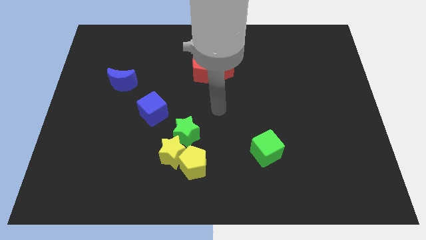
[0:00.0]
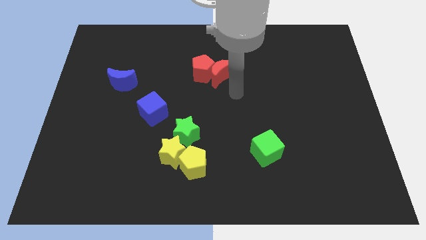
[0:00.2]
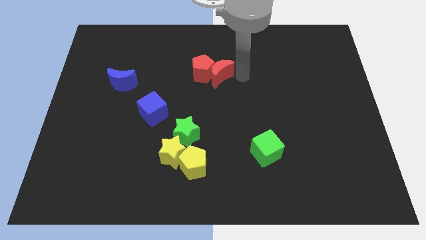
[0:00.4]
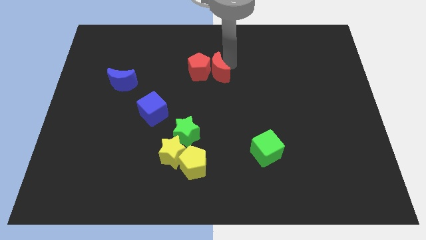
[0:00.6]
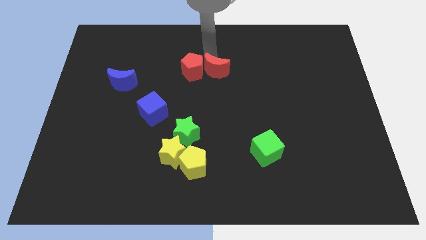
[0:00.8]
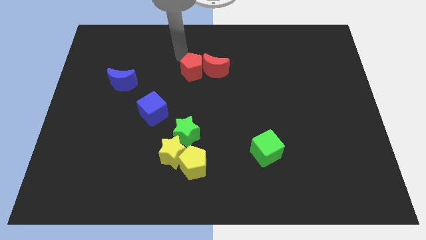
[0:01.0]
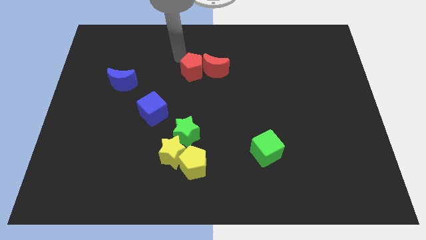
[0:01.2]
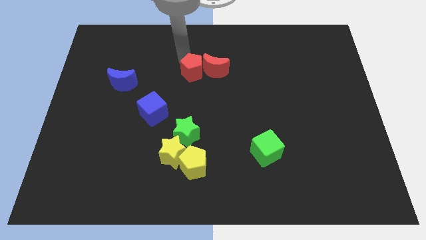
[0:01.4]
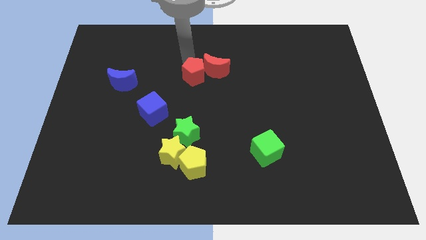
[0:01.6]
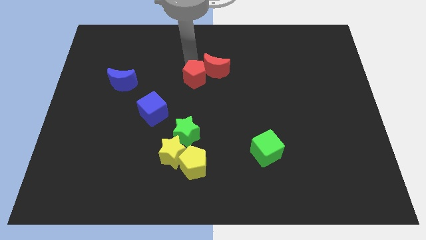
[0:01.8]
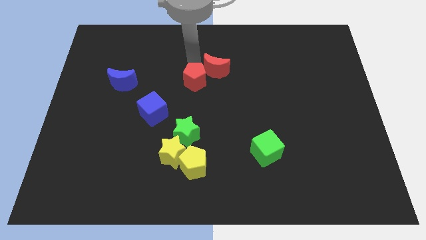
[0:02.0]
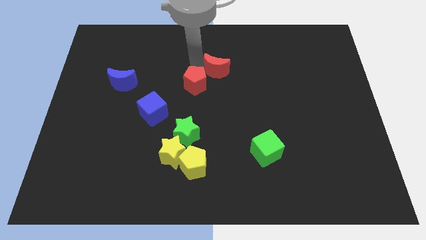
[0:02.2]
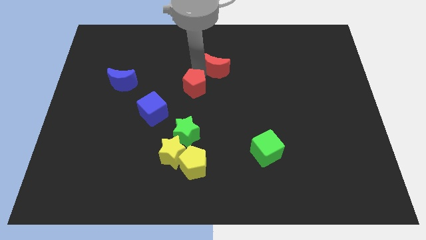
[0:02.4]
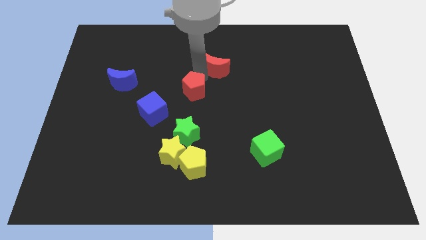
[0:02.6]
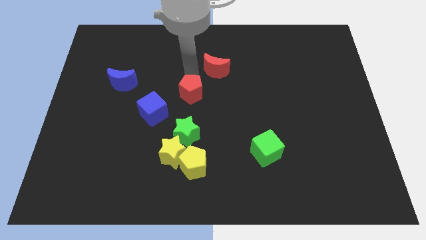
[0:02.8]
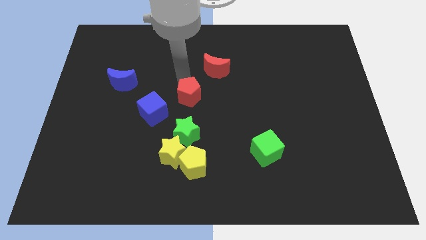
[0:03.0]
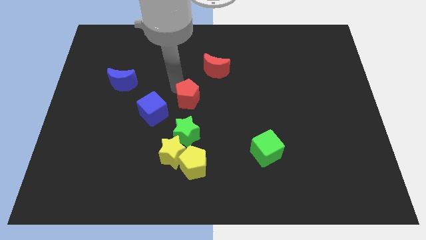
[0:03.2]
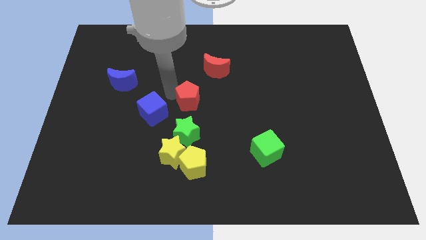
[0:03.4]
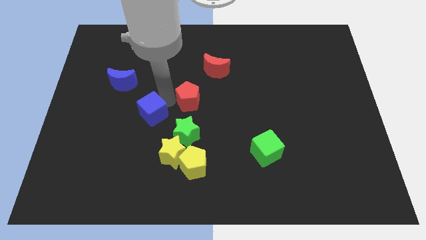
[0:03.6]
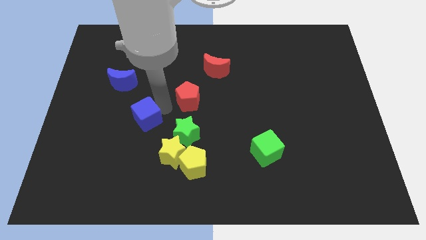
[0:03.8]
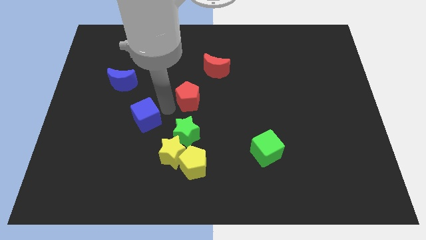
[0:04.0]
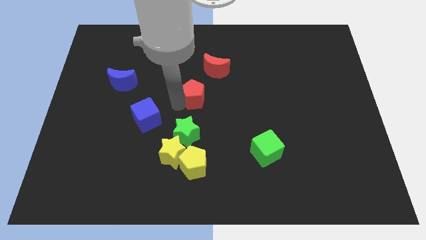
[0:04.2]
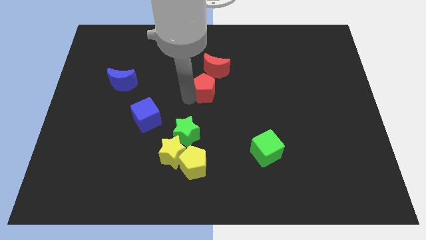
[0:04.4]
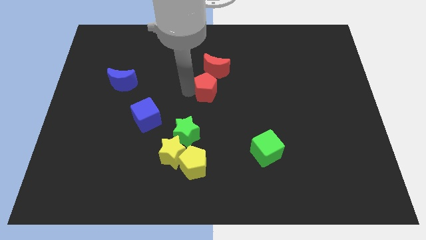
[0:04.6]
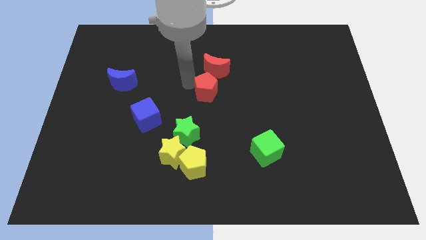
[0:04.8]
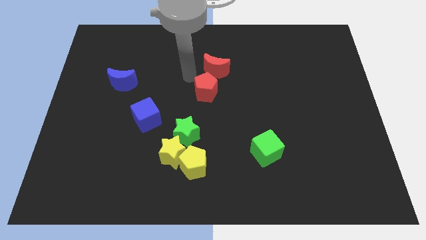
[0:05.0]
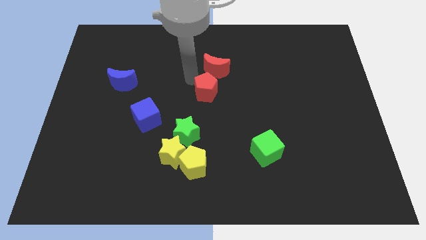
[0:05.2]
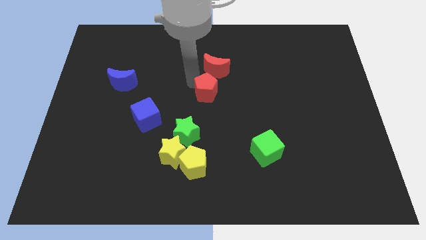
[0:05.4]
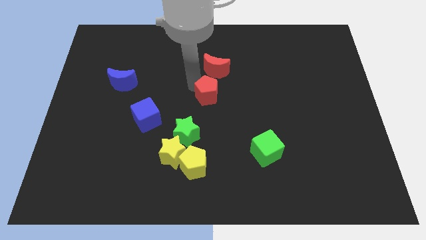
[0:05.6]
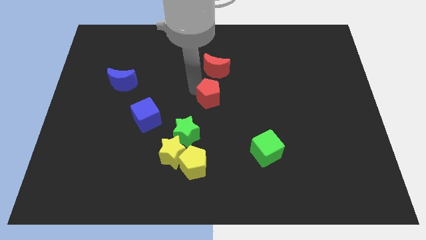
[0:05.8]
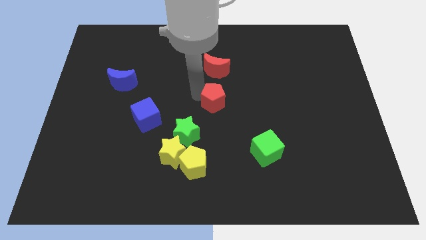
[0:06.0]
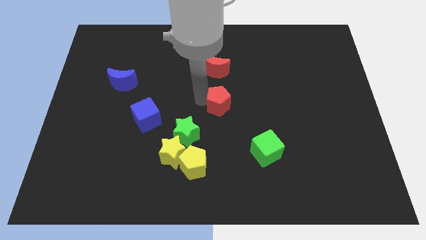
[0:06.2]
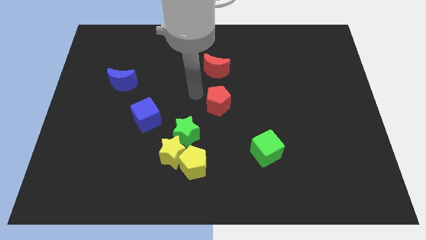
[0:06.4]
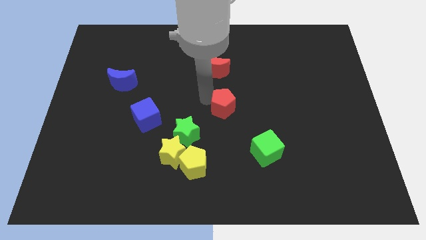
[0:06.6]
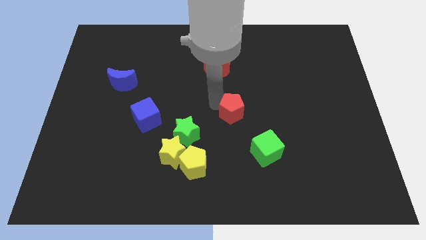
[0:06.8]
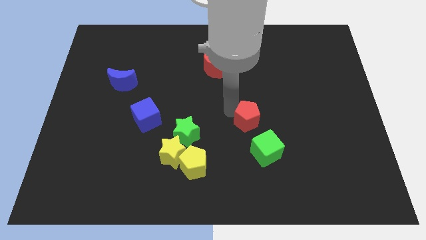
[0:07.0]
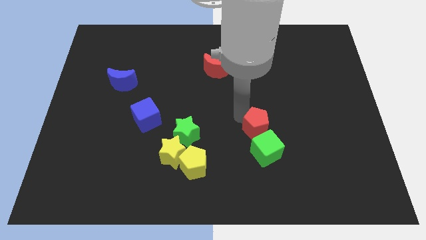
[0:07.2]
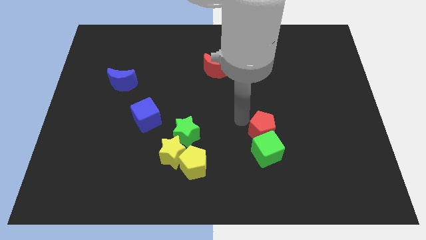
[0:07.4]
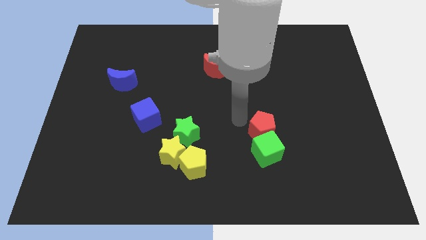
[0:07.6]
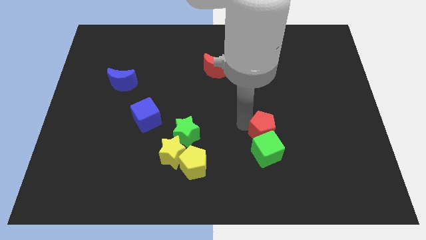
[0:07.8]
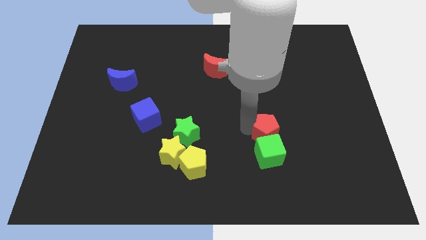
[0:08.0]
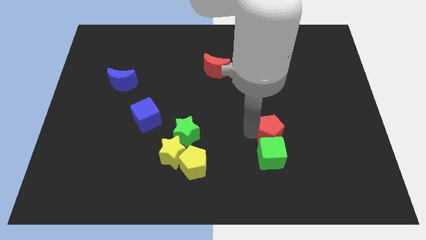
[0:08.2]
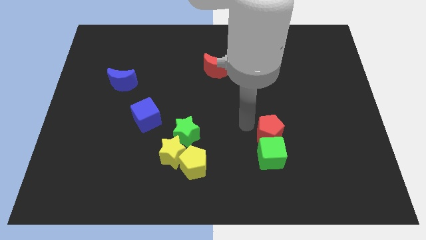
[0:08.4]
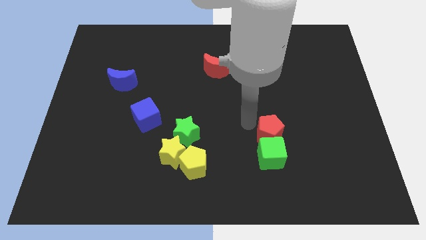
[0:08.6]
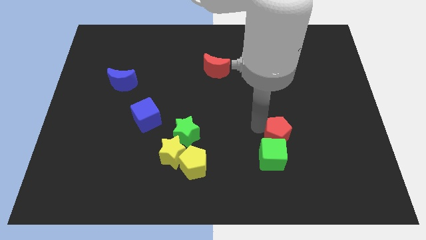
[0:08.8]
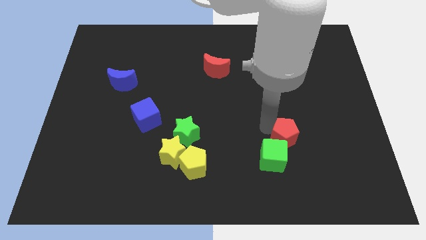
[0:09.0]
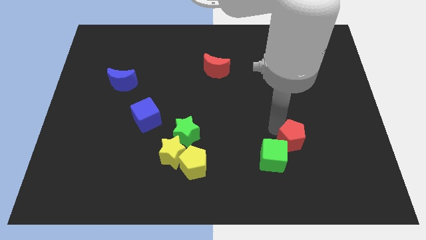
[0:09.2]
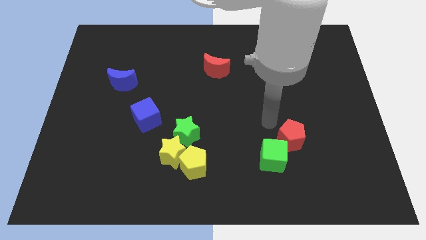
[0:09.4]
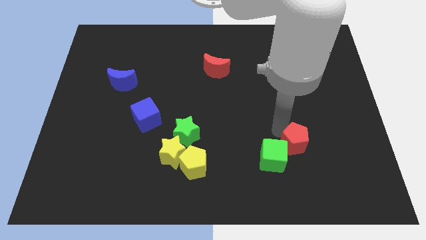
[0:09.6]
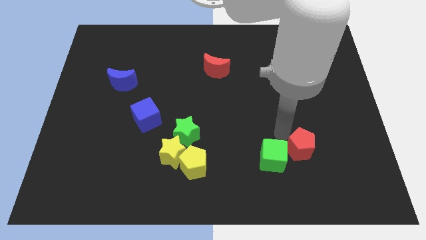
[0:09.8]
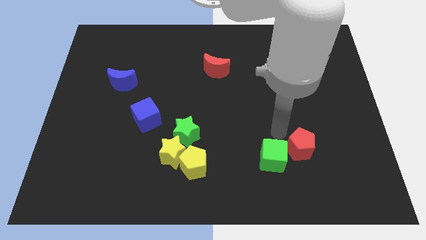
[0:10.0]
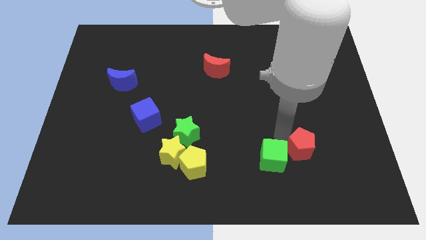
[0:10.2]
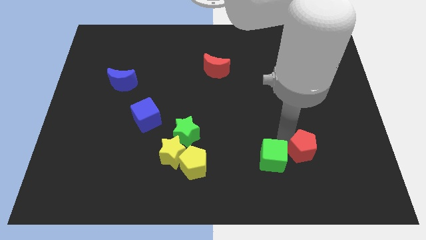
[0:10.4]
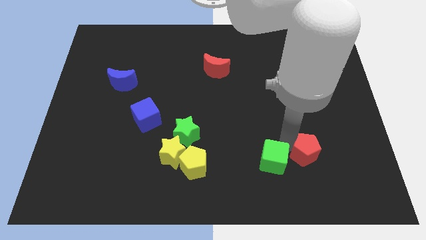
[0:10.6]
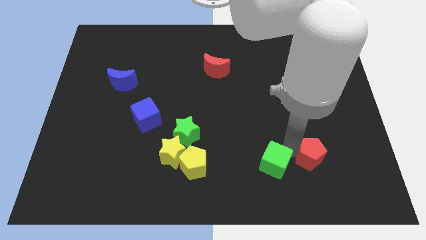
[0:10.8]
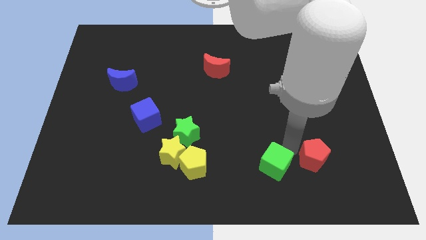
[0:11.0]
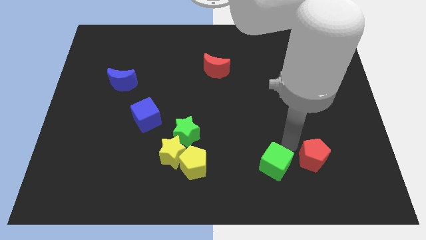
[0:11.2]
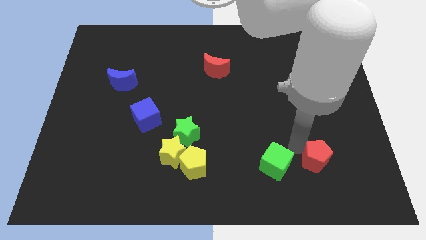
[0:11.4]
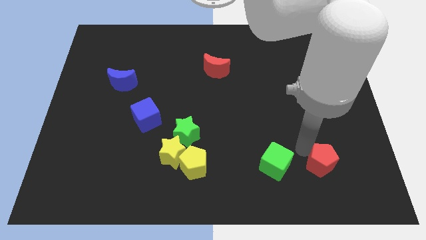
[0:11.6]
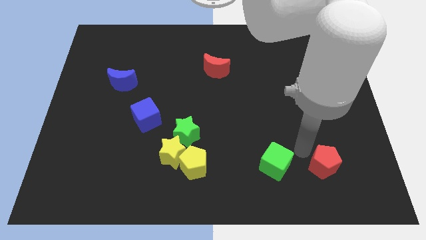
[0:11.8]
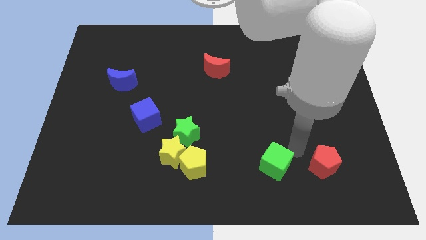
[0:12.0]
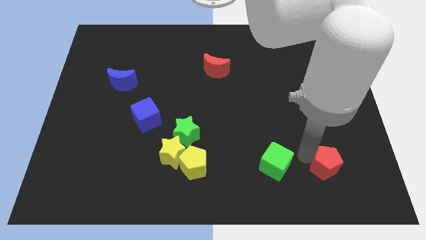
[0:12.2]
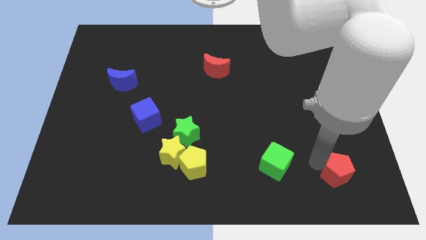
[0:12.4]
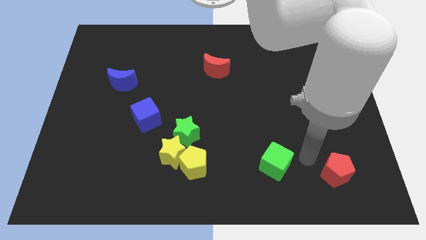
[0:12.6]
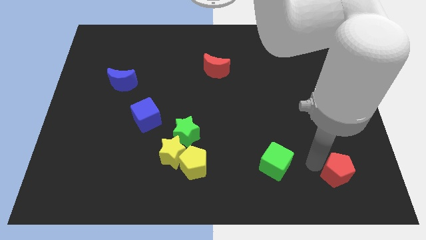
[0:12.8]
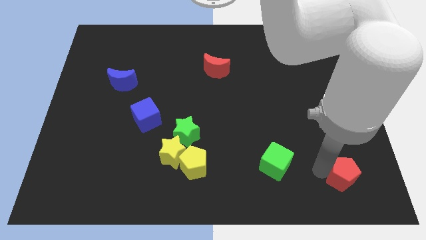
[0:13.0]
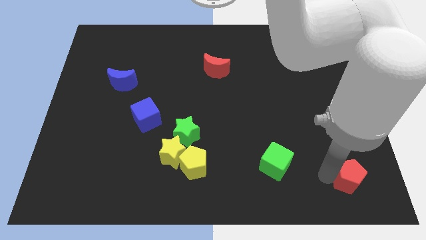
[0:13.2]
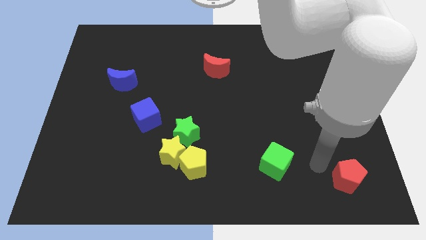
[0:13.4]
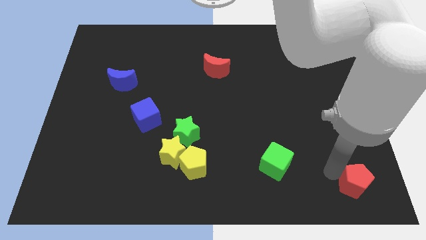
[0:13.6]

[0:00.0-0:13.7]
push the red pentagon to the bottom right of the board

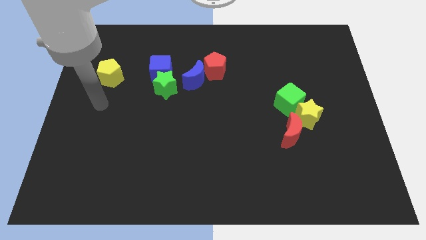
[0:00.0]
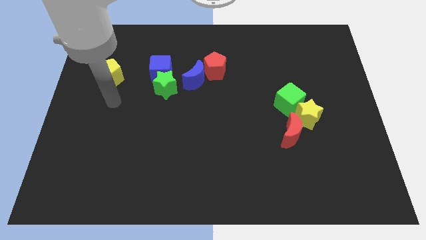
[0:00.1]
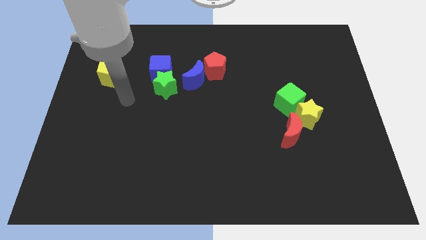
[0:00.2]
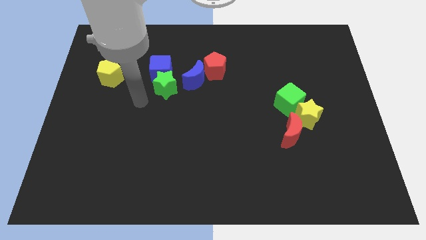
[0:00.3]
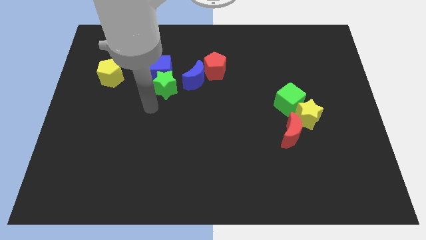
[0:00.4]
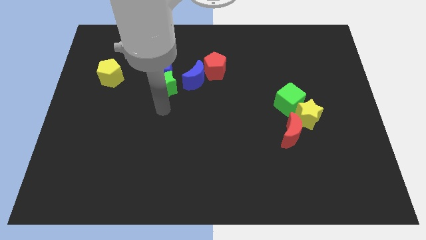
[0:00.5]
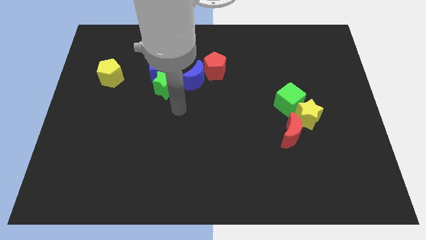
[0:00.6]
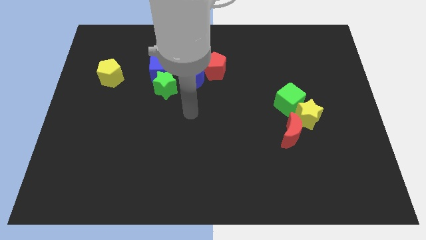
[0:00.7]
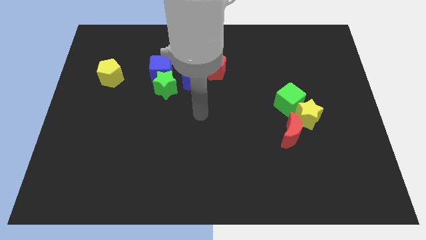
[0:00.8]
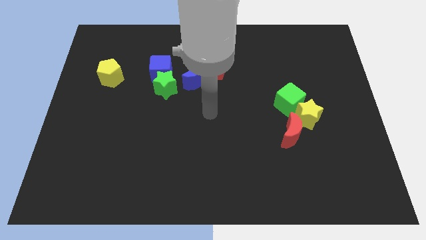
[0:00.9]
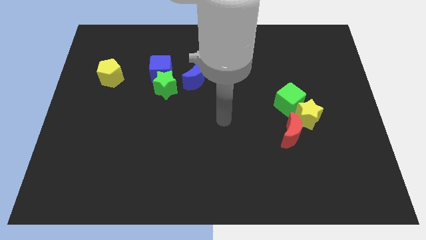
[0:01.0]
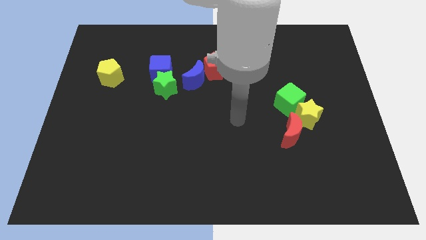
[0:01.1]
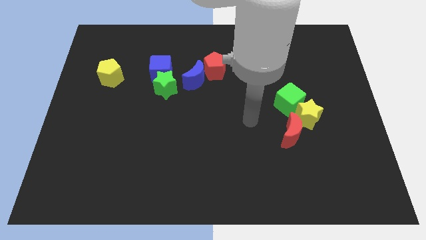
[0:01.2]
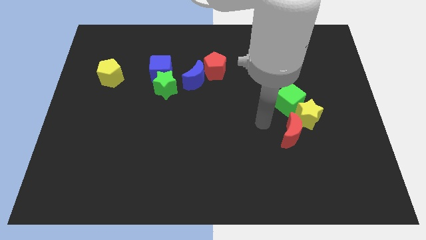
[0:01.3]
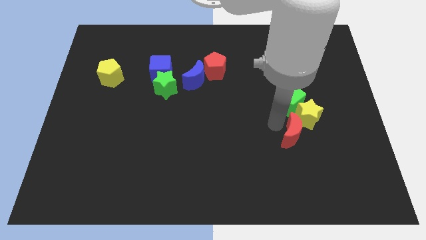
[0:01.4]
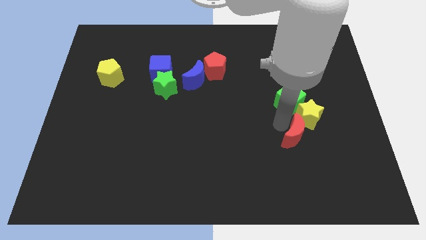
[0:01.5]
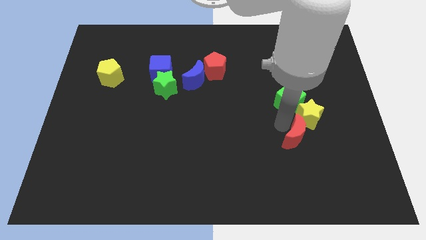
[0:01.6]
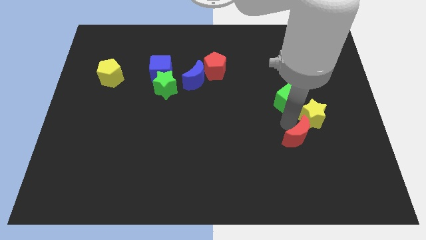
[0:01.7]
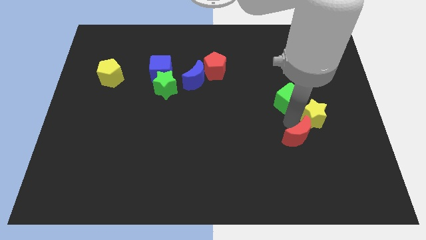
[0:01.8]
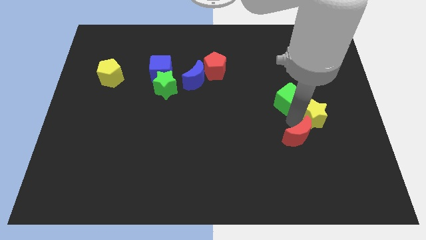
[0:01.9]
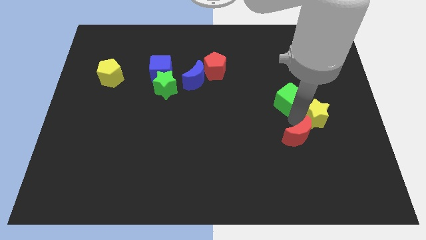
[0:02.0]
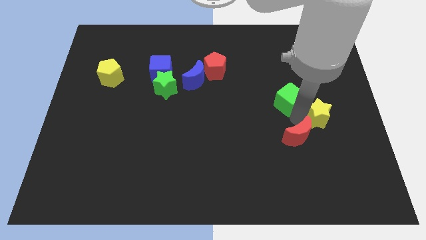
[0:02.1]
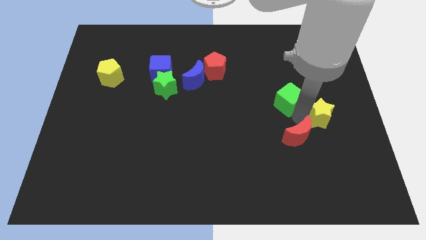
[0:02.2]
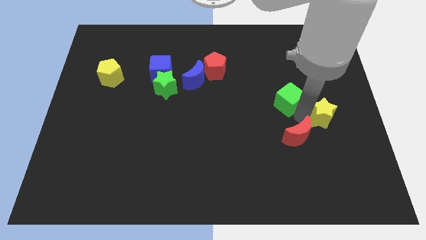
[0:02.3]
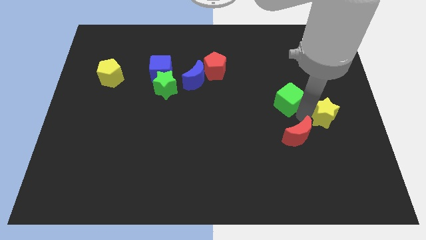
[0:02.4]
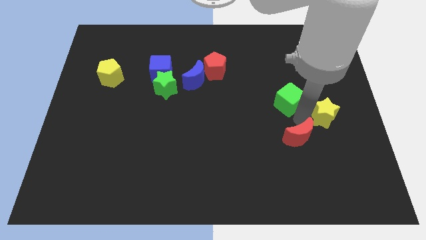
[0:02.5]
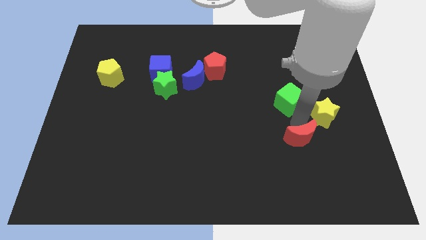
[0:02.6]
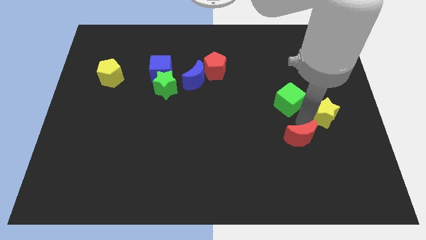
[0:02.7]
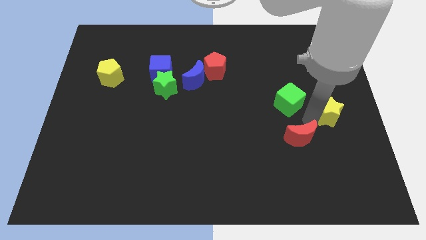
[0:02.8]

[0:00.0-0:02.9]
slide the yellow star to the right side of the board
